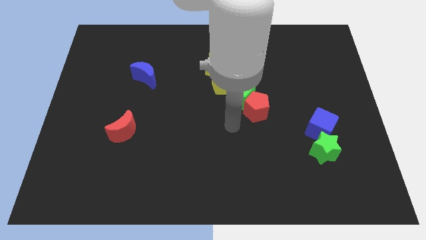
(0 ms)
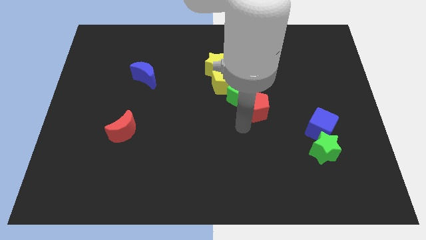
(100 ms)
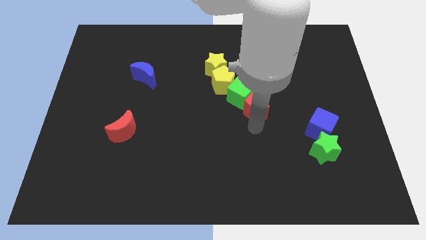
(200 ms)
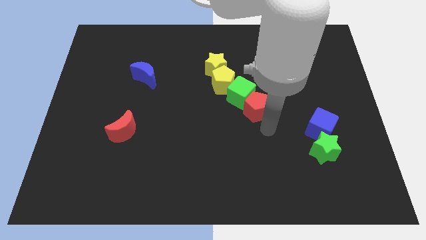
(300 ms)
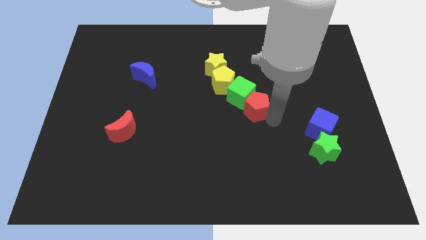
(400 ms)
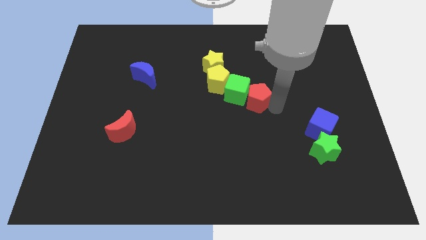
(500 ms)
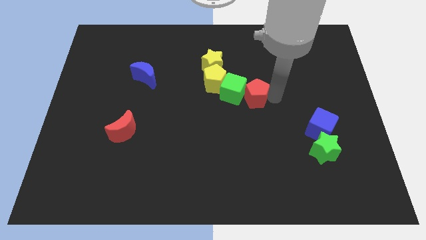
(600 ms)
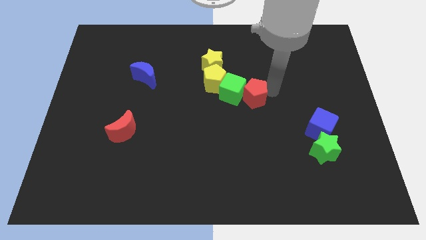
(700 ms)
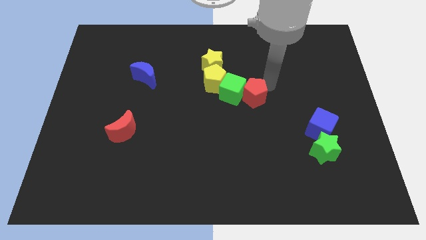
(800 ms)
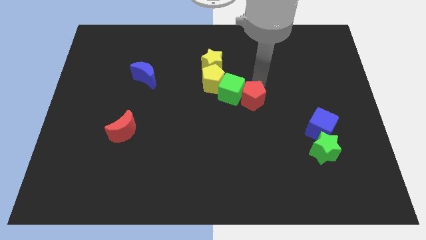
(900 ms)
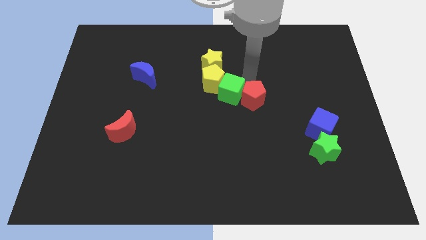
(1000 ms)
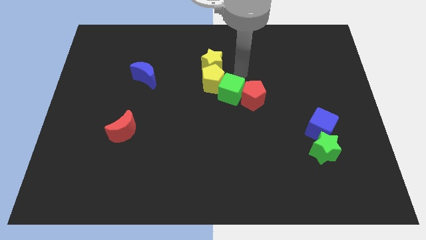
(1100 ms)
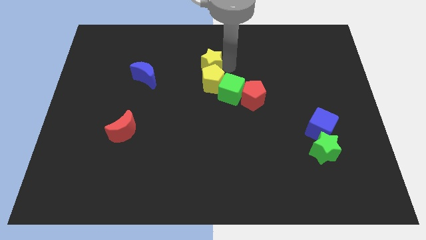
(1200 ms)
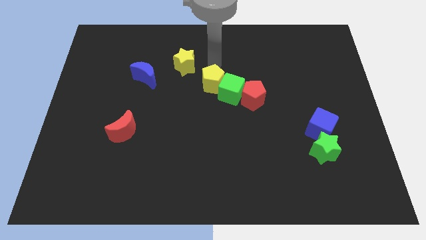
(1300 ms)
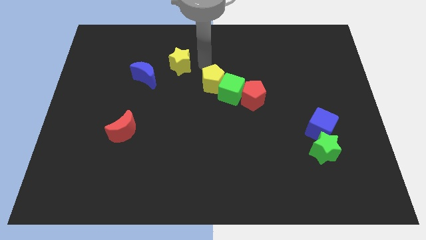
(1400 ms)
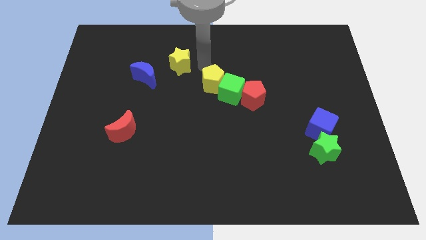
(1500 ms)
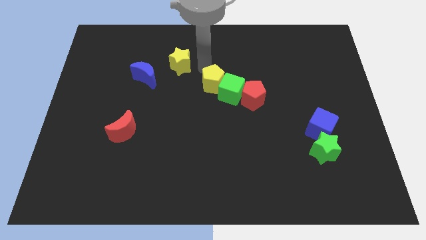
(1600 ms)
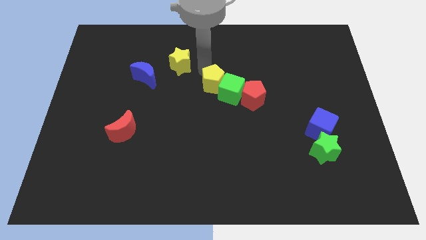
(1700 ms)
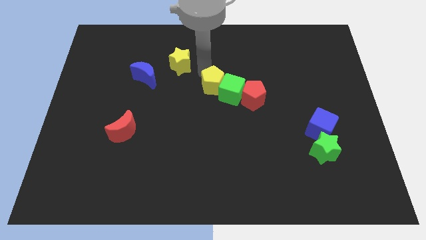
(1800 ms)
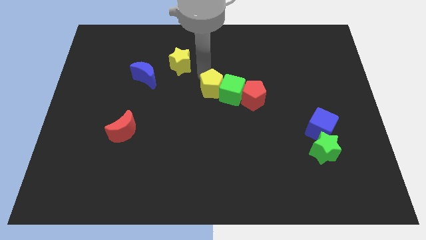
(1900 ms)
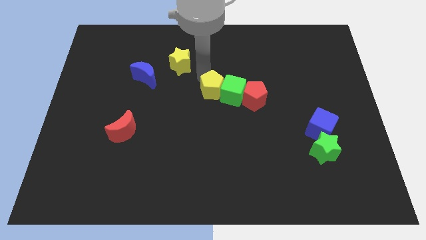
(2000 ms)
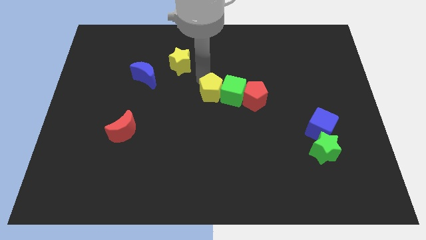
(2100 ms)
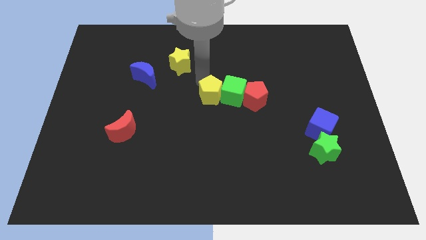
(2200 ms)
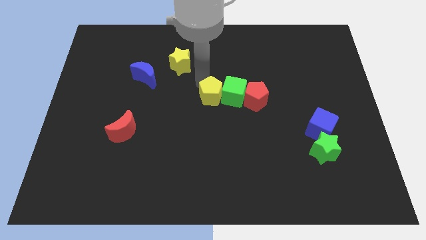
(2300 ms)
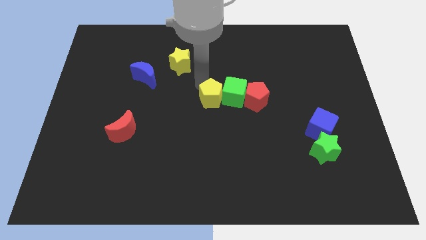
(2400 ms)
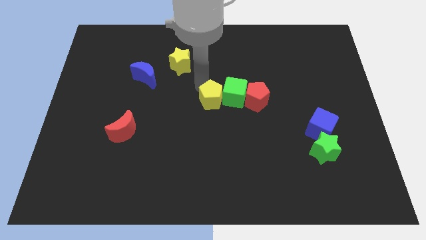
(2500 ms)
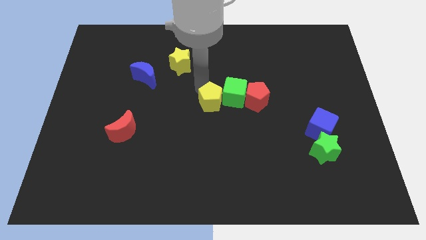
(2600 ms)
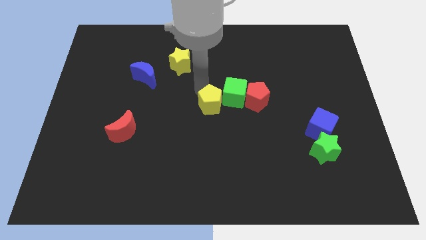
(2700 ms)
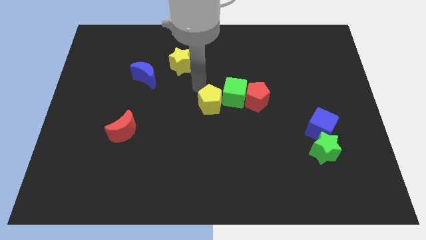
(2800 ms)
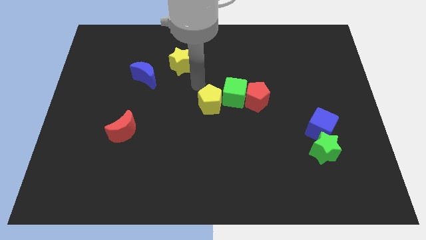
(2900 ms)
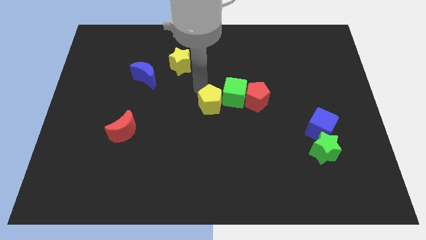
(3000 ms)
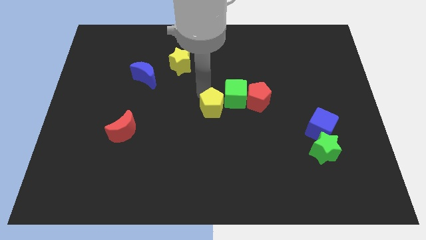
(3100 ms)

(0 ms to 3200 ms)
slide the yellow pentagon a little bit downwards

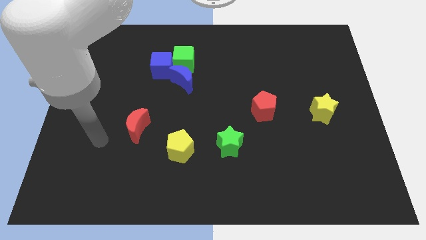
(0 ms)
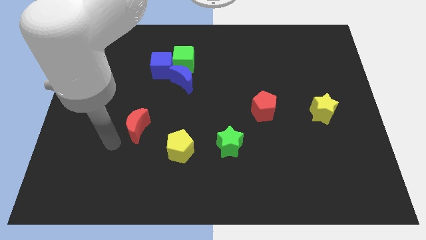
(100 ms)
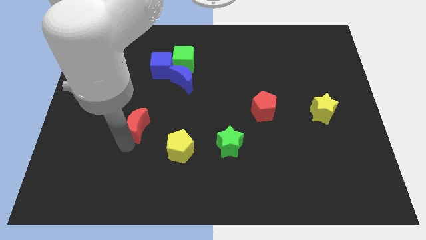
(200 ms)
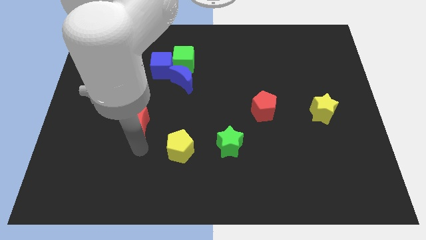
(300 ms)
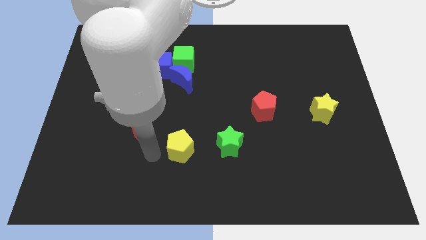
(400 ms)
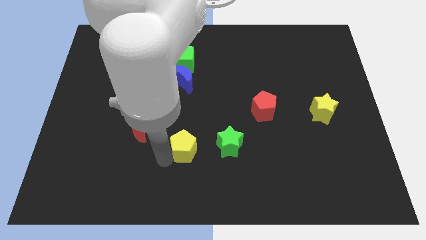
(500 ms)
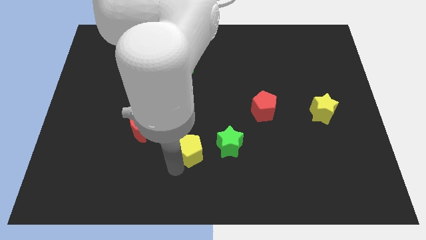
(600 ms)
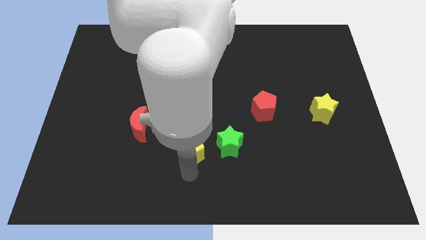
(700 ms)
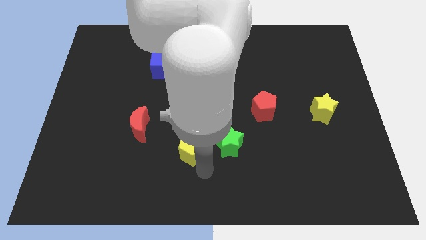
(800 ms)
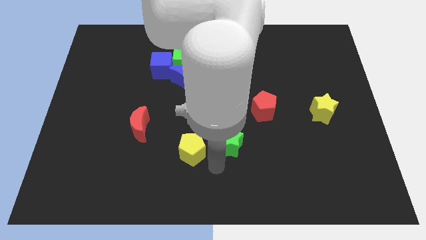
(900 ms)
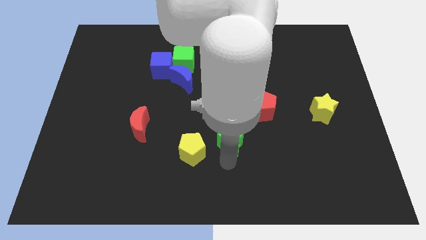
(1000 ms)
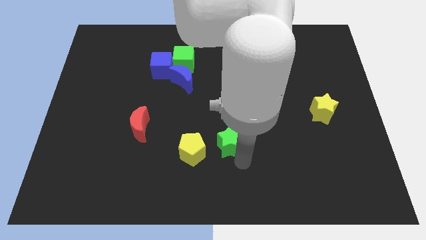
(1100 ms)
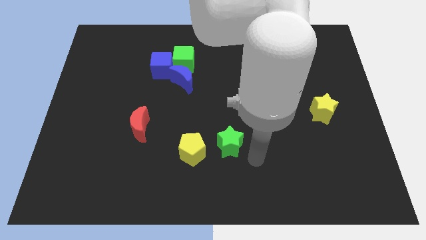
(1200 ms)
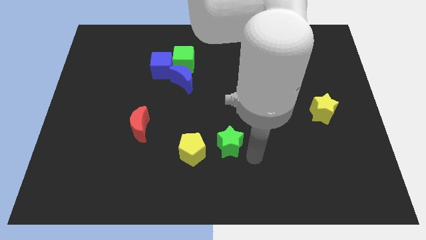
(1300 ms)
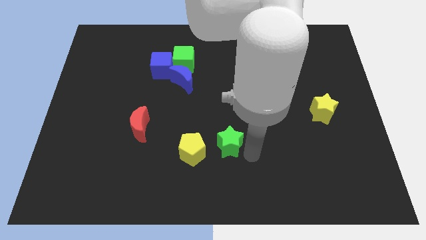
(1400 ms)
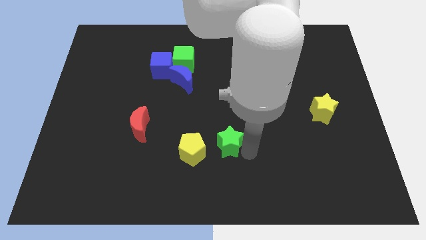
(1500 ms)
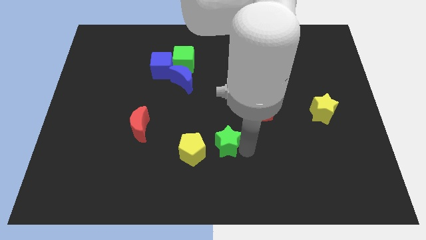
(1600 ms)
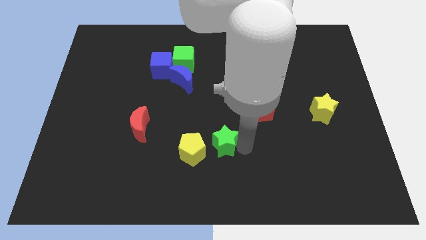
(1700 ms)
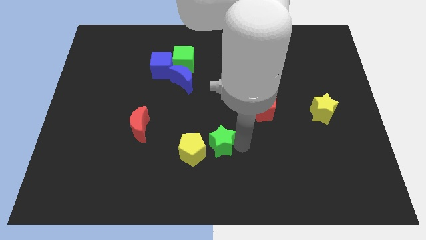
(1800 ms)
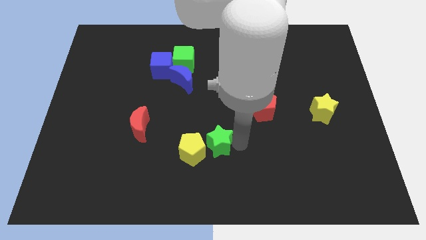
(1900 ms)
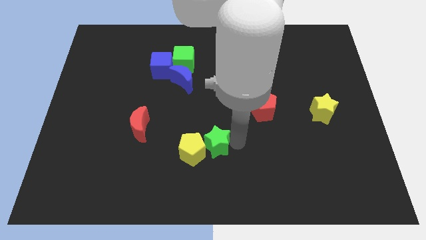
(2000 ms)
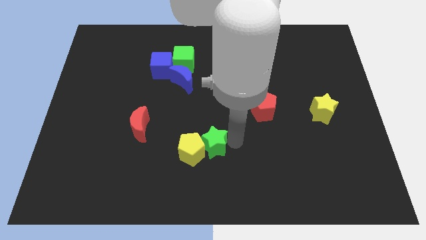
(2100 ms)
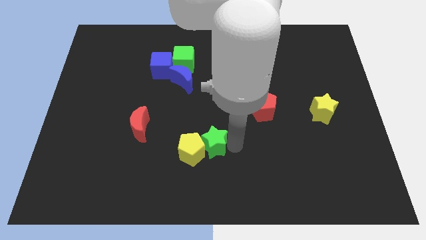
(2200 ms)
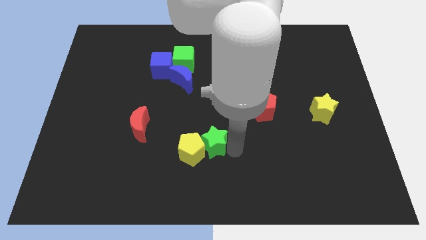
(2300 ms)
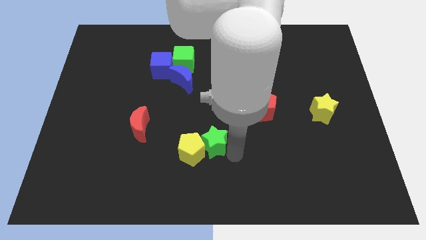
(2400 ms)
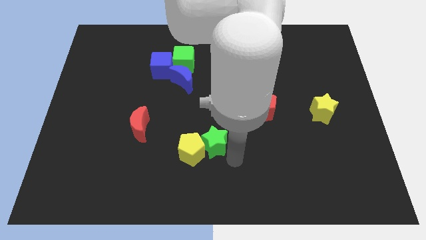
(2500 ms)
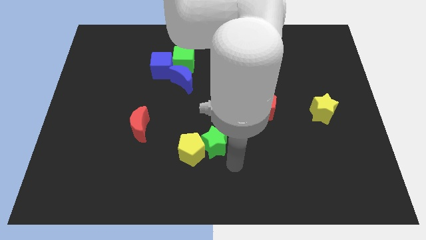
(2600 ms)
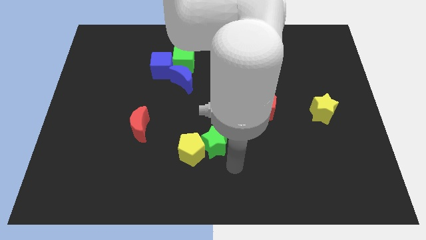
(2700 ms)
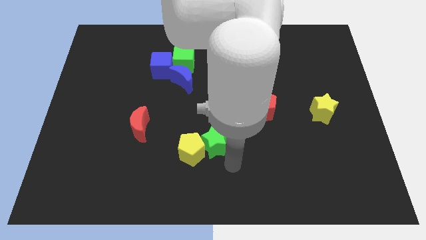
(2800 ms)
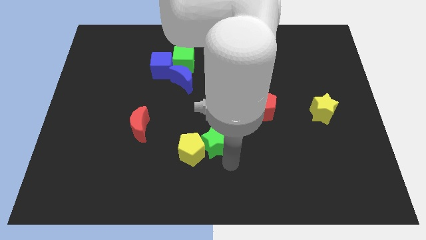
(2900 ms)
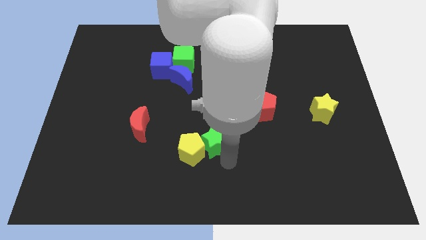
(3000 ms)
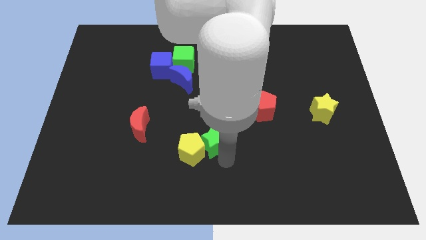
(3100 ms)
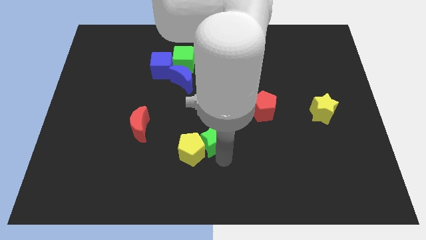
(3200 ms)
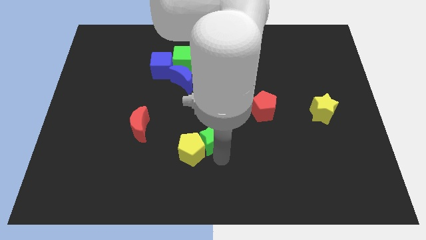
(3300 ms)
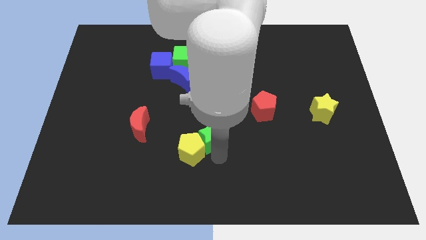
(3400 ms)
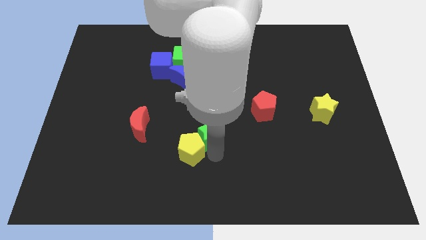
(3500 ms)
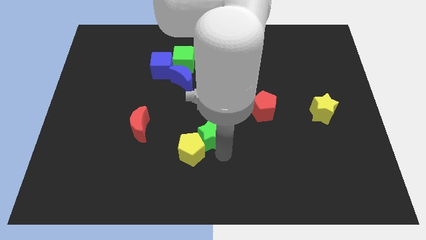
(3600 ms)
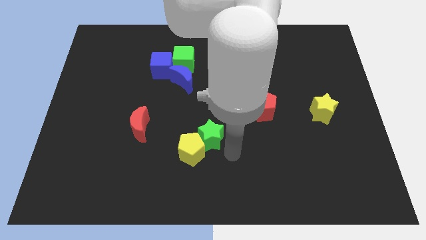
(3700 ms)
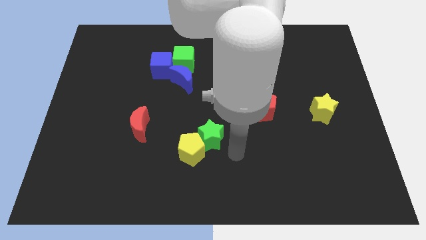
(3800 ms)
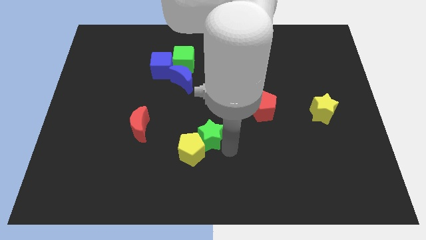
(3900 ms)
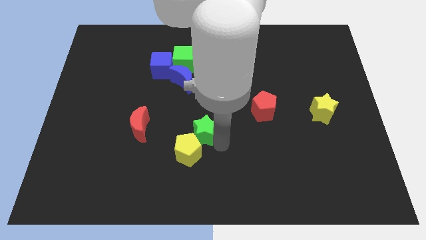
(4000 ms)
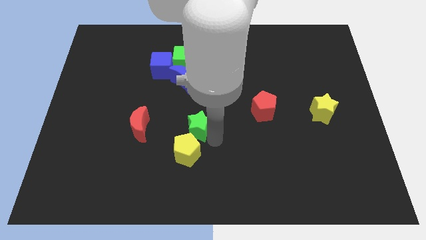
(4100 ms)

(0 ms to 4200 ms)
slightly slide the green star up and left

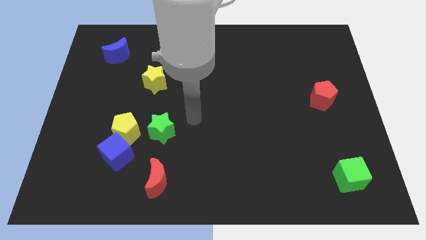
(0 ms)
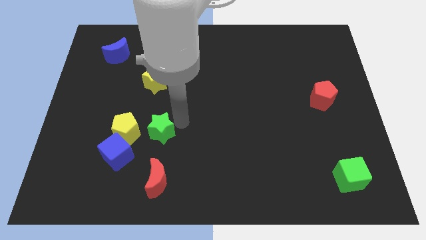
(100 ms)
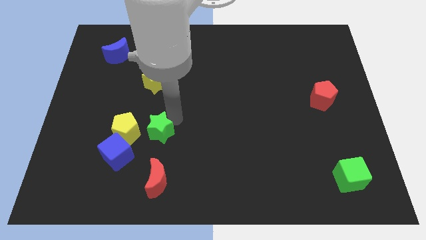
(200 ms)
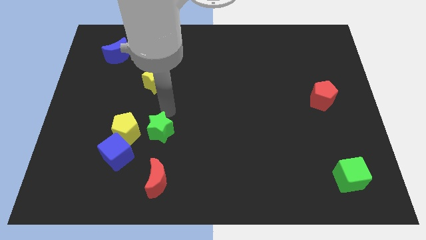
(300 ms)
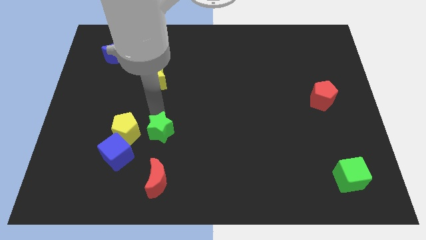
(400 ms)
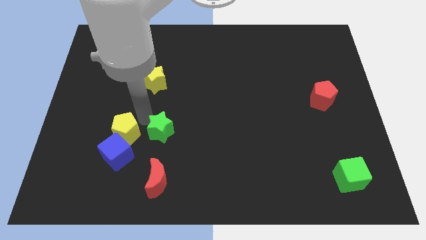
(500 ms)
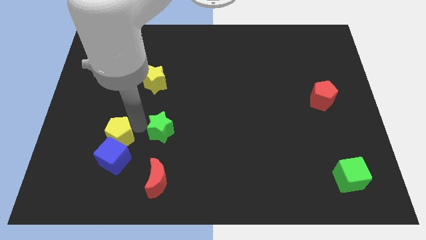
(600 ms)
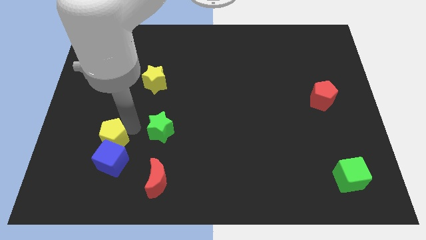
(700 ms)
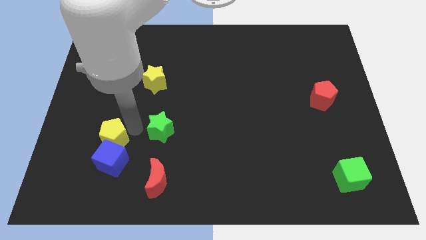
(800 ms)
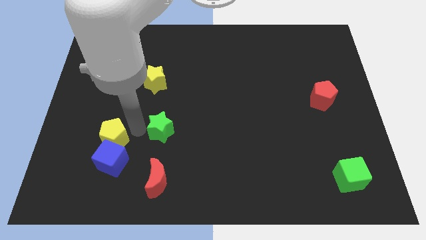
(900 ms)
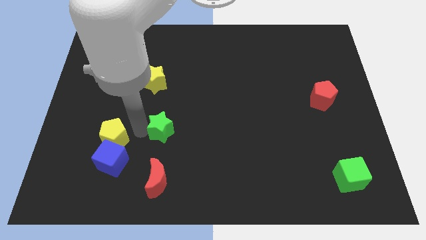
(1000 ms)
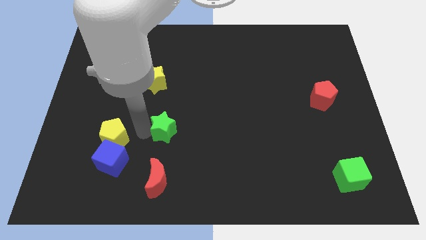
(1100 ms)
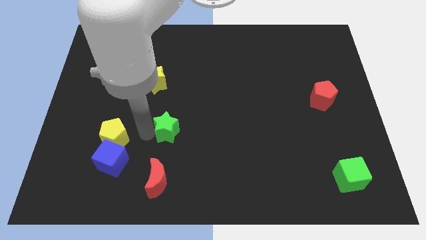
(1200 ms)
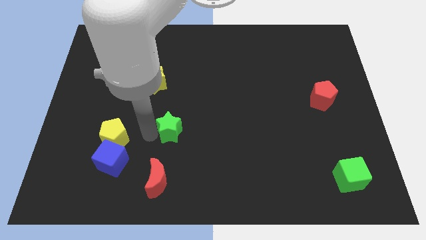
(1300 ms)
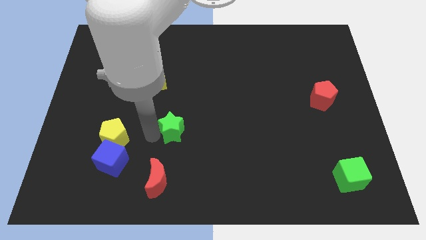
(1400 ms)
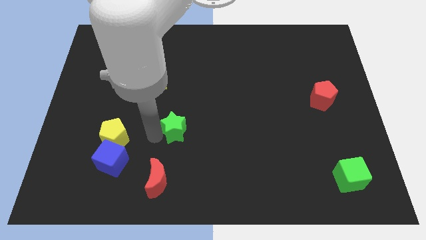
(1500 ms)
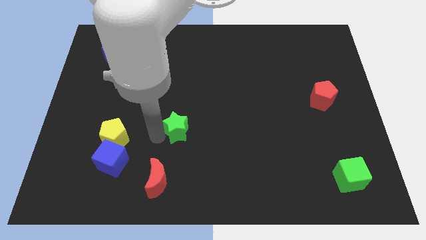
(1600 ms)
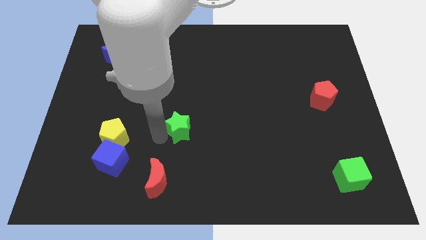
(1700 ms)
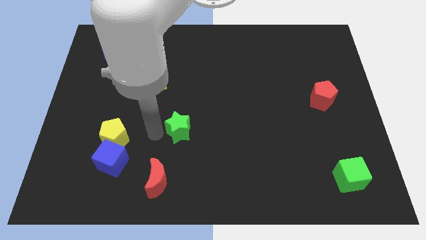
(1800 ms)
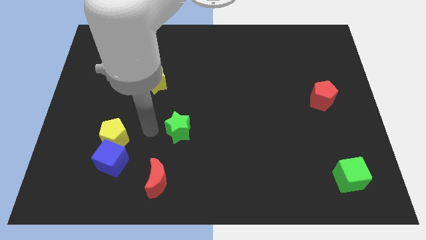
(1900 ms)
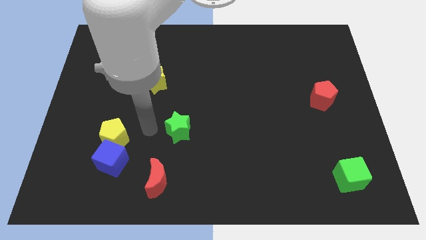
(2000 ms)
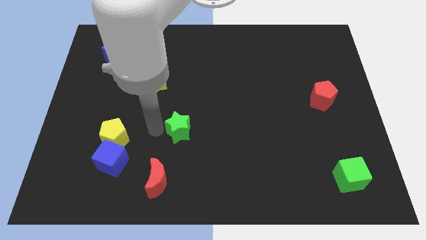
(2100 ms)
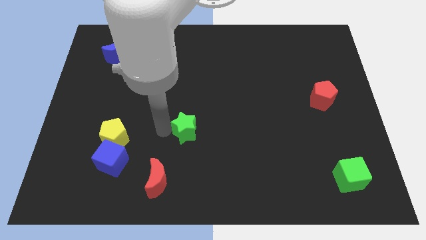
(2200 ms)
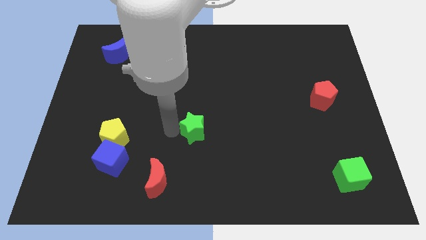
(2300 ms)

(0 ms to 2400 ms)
slightly slide the green star to the right
